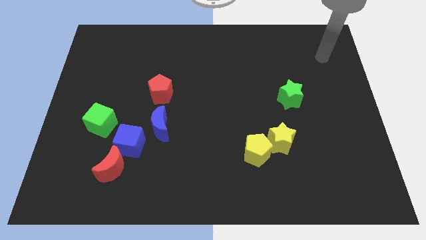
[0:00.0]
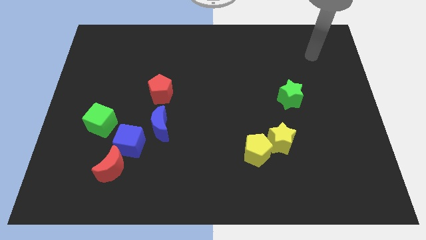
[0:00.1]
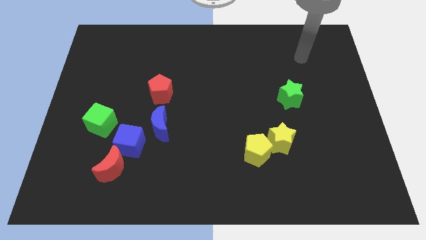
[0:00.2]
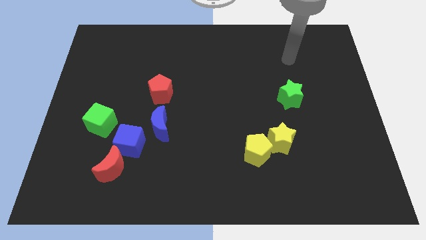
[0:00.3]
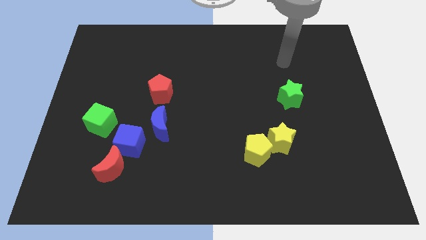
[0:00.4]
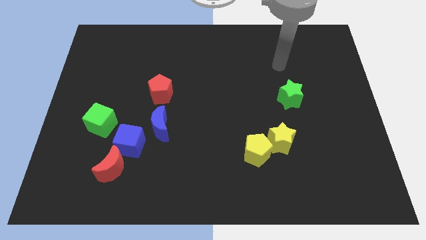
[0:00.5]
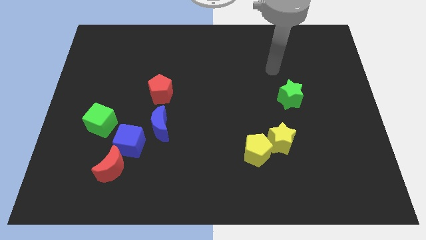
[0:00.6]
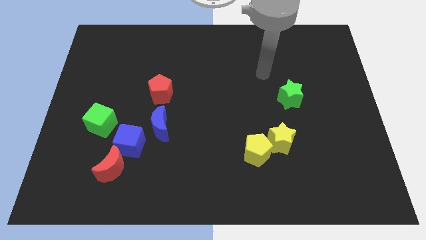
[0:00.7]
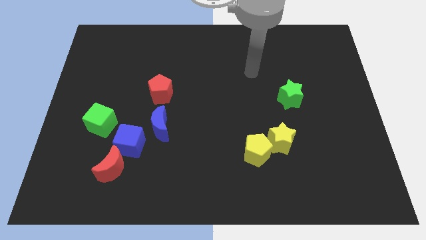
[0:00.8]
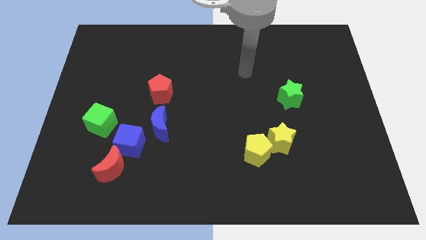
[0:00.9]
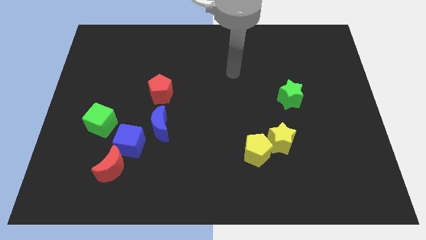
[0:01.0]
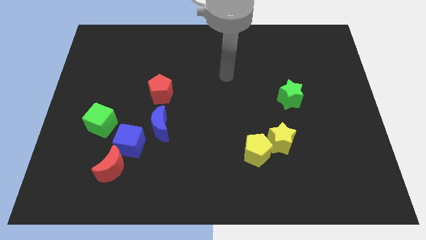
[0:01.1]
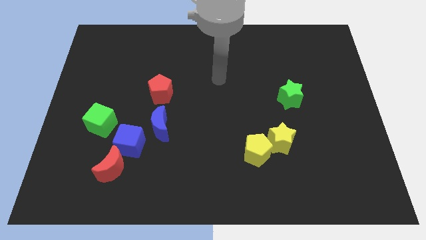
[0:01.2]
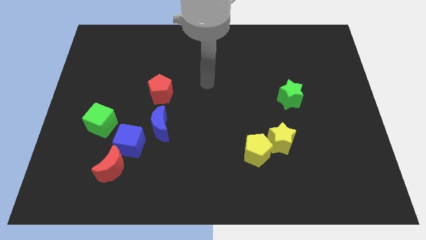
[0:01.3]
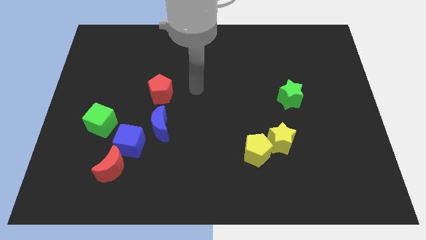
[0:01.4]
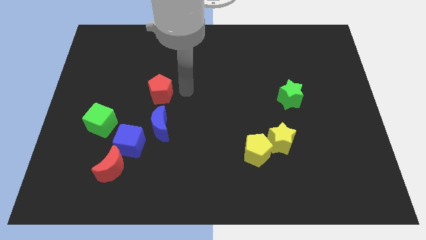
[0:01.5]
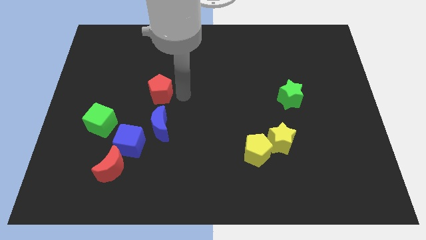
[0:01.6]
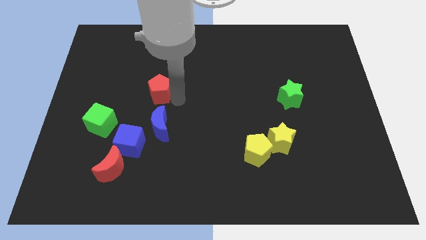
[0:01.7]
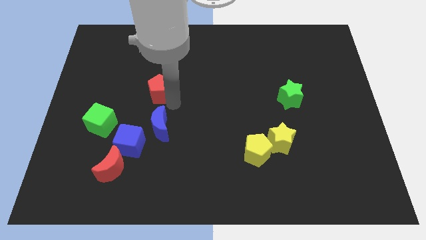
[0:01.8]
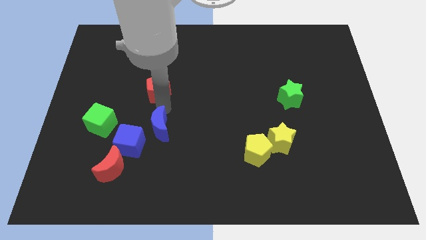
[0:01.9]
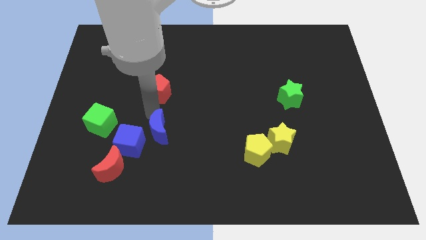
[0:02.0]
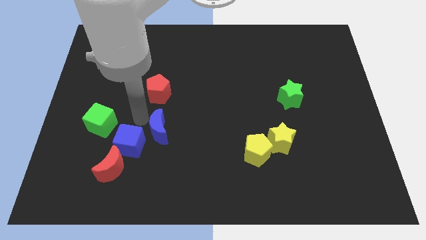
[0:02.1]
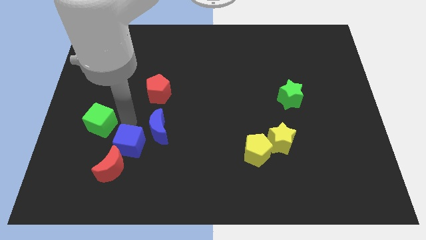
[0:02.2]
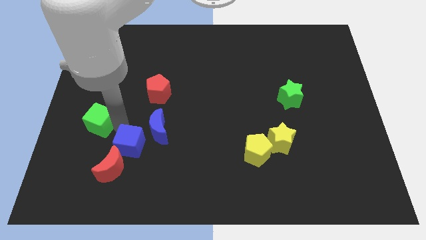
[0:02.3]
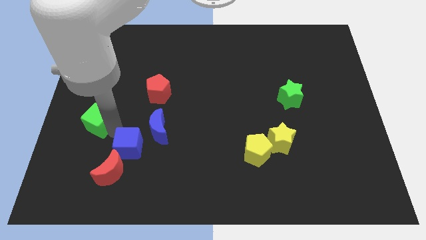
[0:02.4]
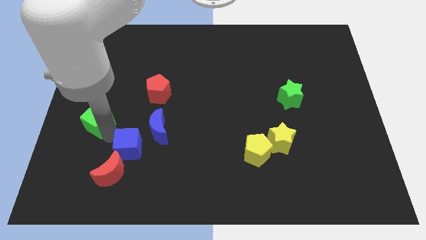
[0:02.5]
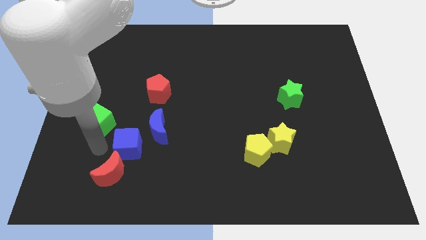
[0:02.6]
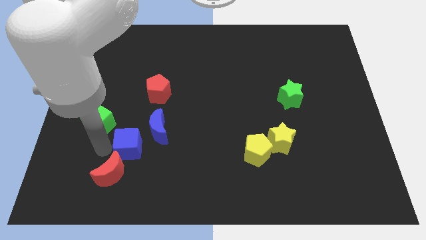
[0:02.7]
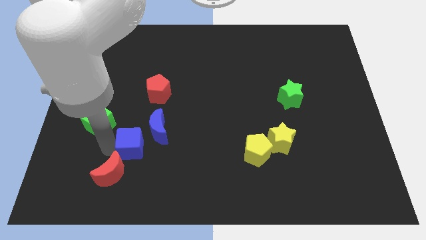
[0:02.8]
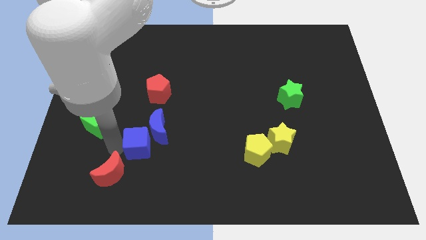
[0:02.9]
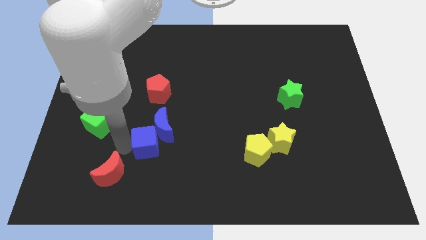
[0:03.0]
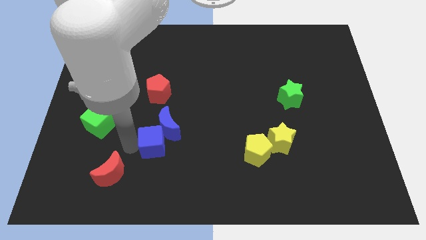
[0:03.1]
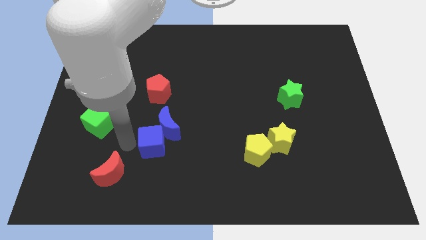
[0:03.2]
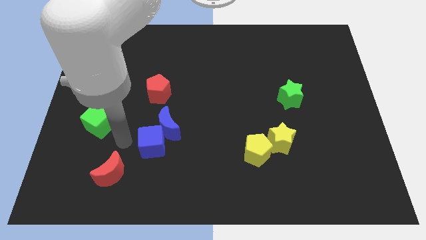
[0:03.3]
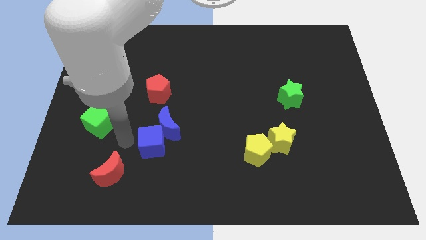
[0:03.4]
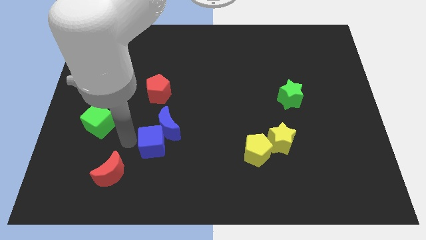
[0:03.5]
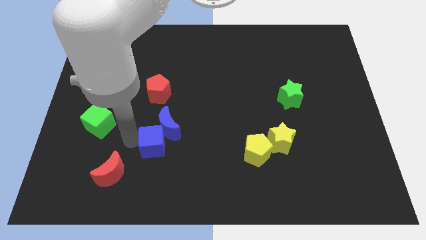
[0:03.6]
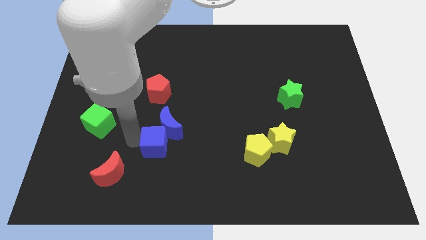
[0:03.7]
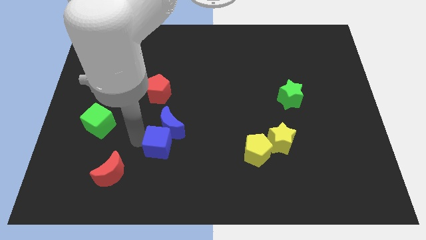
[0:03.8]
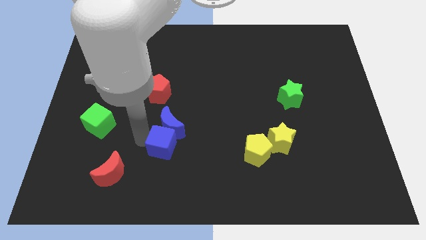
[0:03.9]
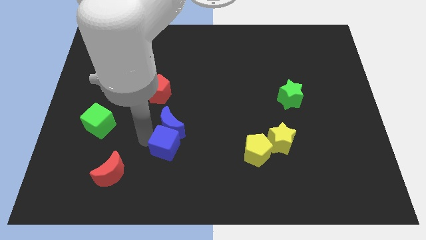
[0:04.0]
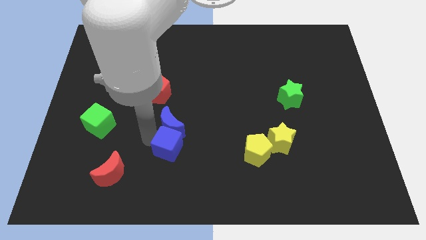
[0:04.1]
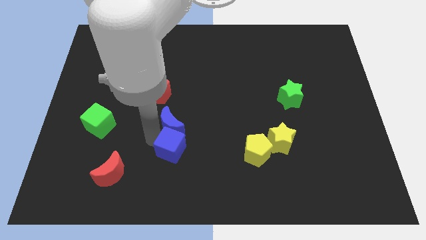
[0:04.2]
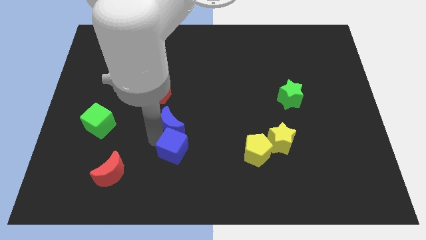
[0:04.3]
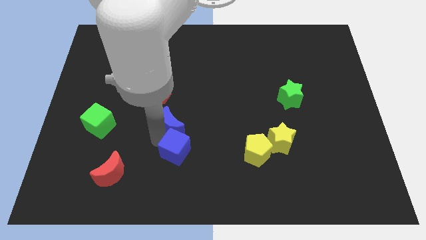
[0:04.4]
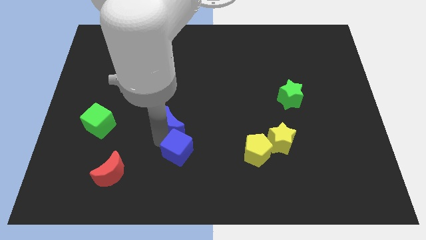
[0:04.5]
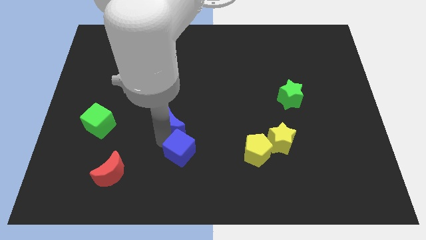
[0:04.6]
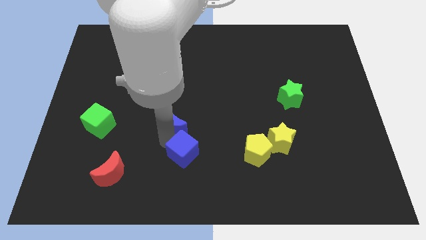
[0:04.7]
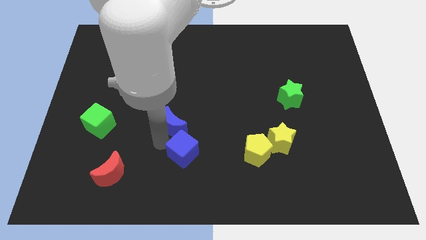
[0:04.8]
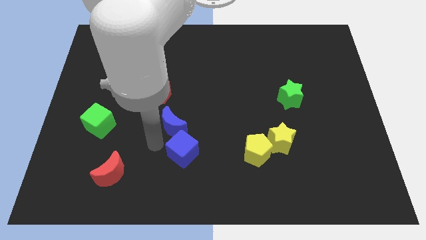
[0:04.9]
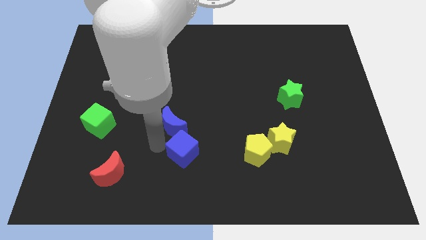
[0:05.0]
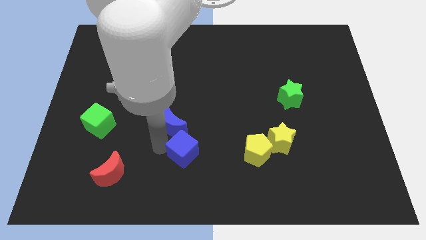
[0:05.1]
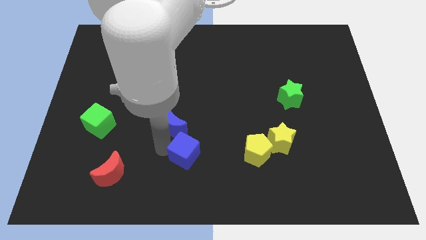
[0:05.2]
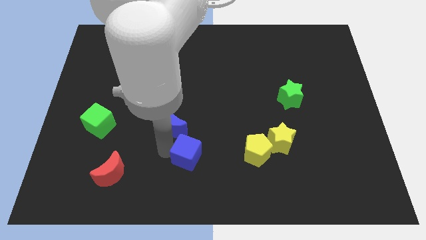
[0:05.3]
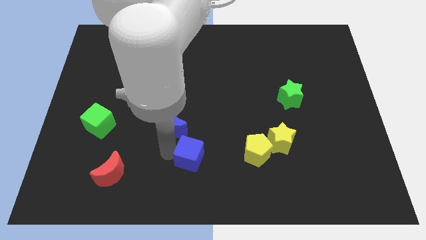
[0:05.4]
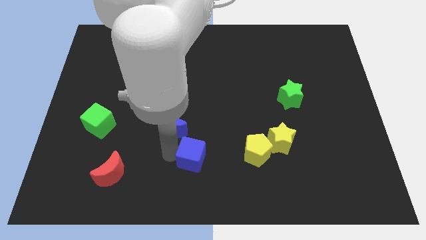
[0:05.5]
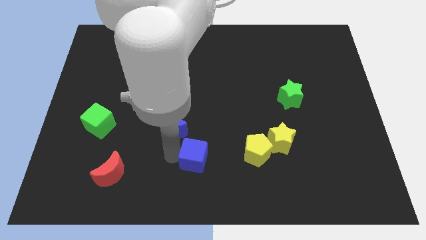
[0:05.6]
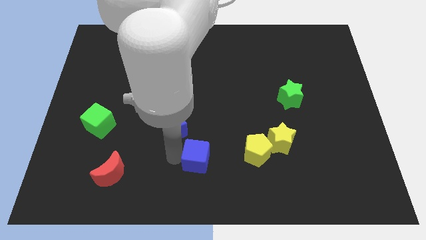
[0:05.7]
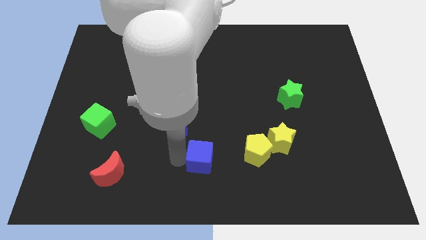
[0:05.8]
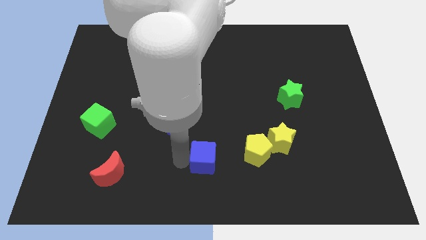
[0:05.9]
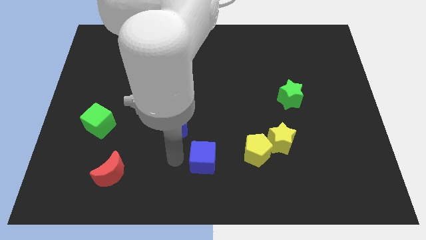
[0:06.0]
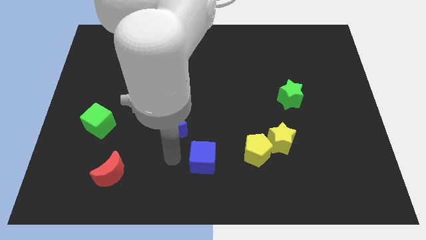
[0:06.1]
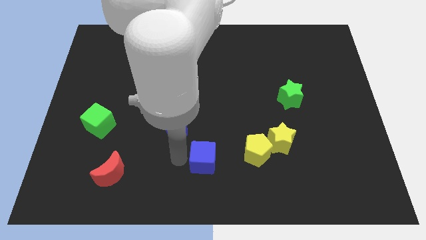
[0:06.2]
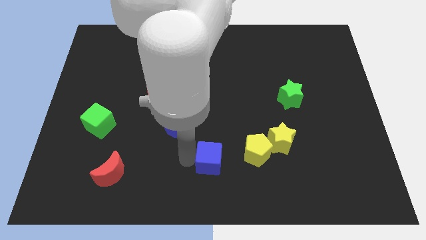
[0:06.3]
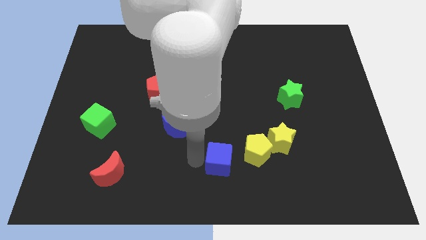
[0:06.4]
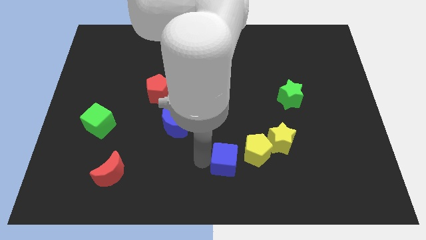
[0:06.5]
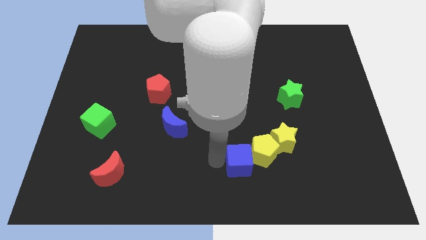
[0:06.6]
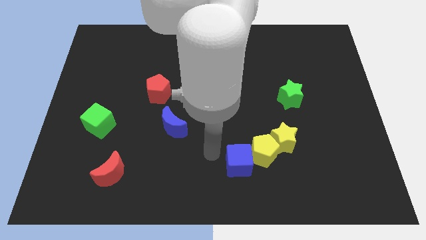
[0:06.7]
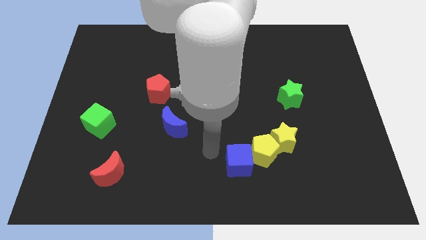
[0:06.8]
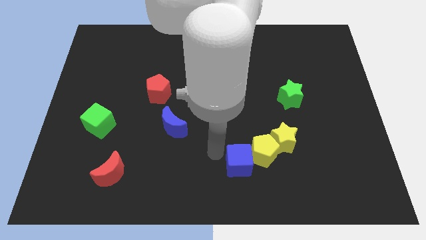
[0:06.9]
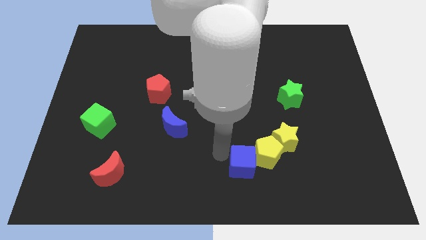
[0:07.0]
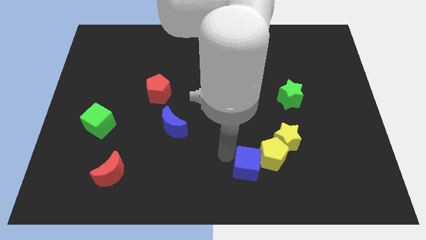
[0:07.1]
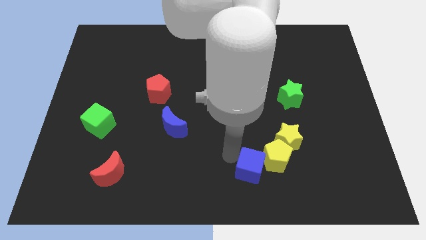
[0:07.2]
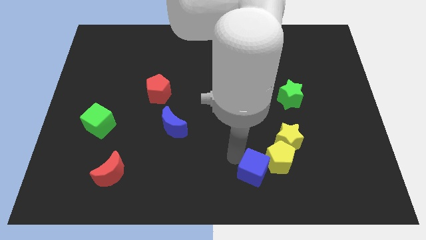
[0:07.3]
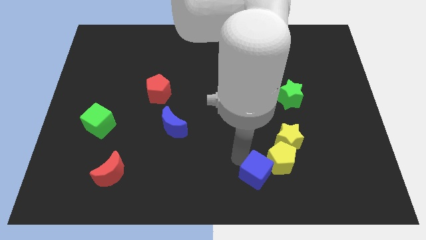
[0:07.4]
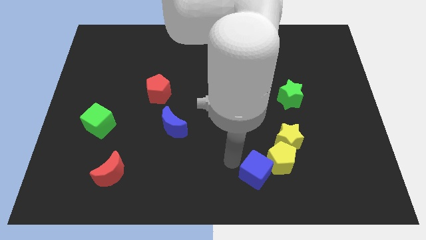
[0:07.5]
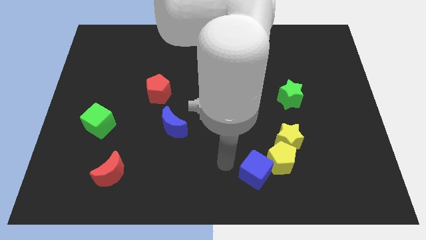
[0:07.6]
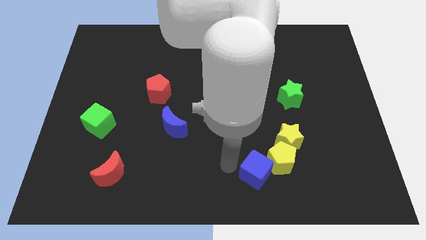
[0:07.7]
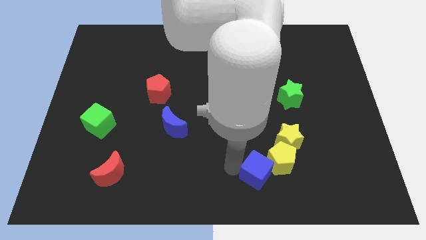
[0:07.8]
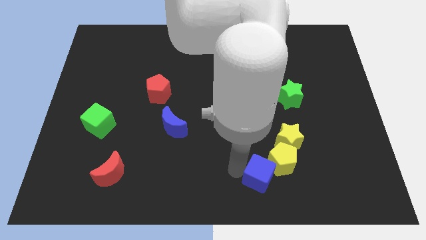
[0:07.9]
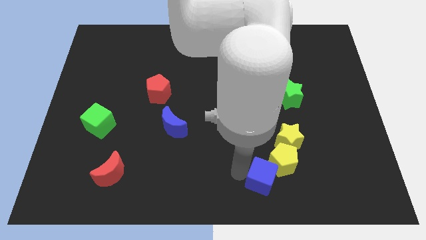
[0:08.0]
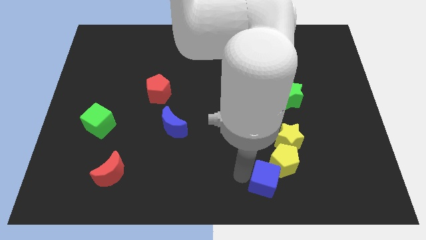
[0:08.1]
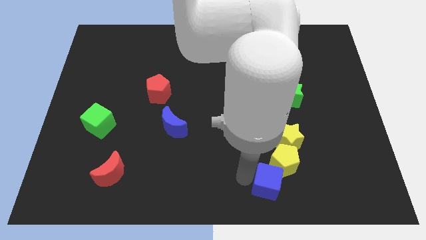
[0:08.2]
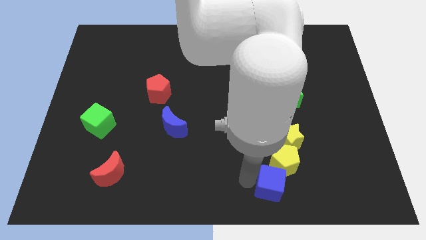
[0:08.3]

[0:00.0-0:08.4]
slide the blue cube to the bottom of the yellow star
